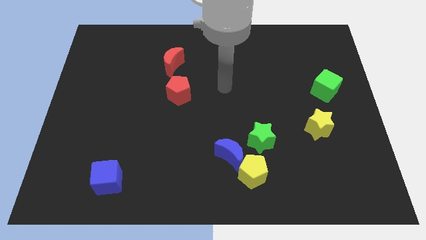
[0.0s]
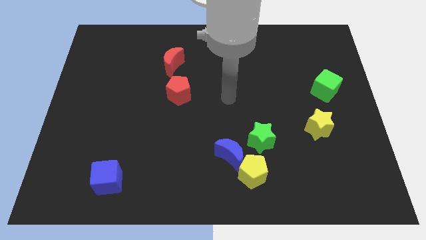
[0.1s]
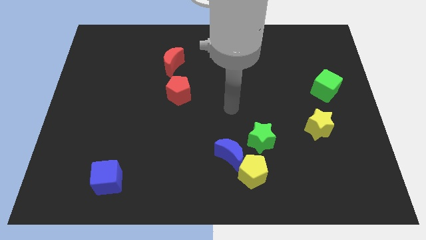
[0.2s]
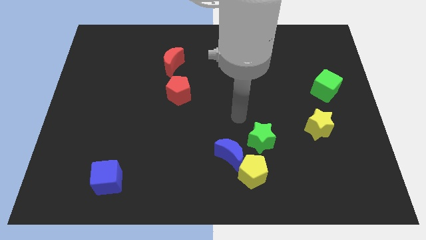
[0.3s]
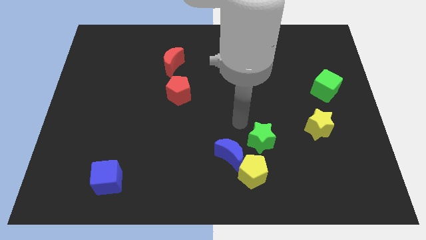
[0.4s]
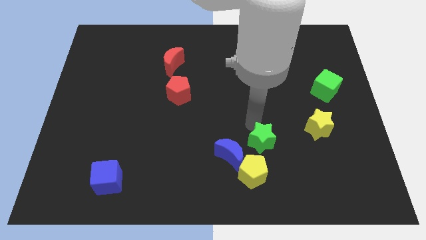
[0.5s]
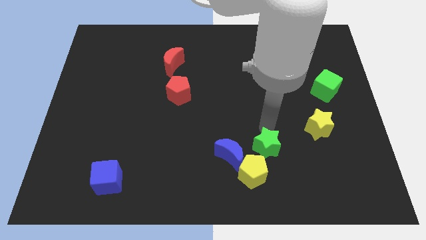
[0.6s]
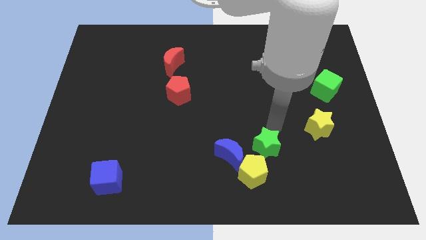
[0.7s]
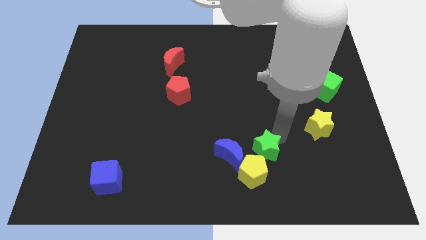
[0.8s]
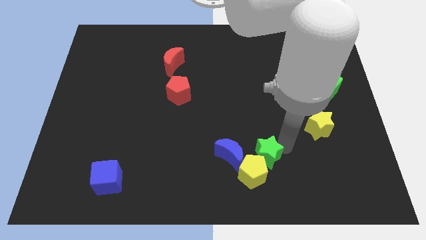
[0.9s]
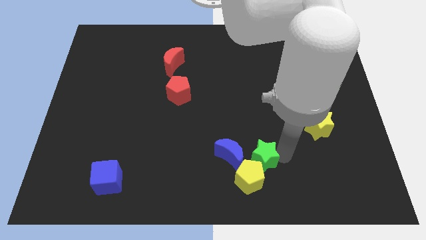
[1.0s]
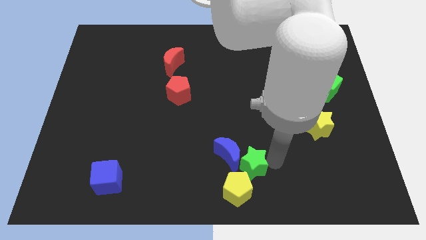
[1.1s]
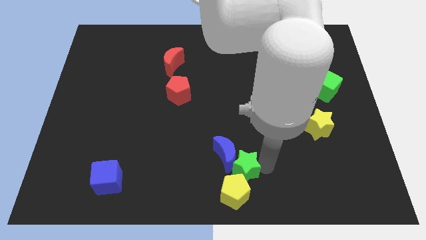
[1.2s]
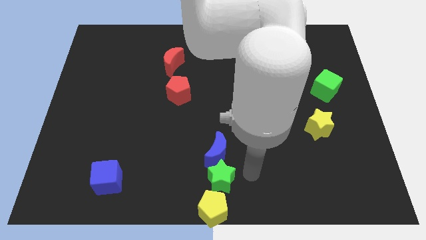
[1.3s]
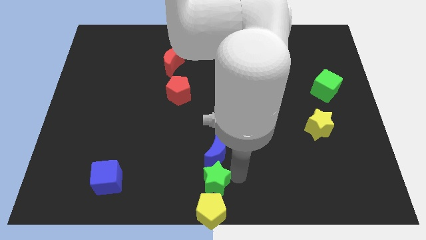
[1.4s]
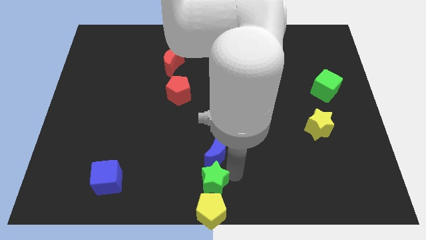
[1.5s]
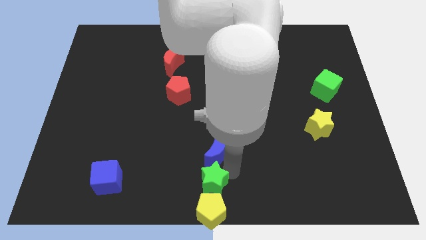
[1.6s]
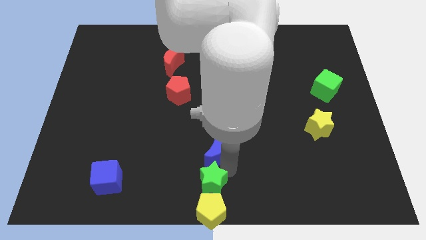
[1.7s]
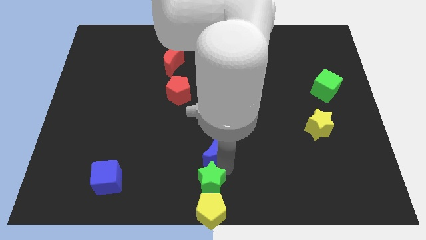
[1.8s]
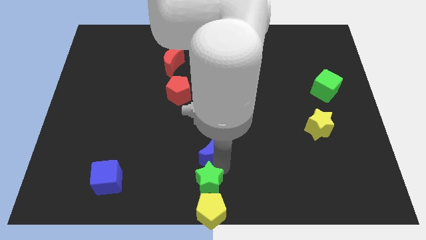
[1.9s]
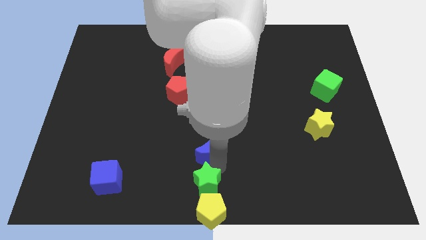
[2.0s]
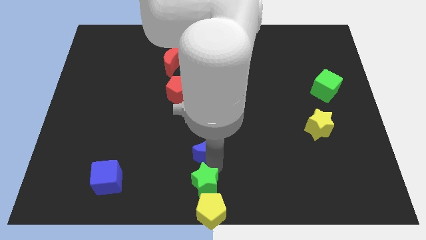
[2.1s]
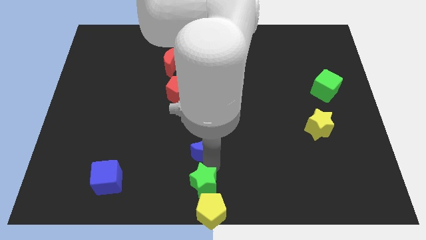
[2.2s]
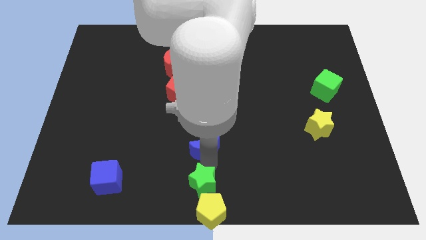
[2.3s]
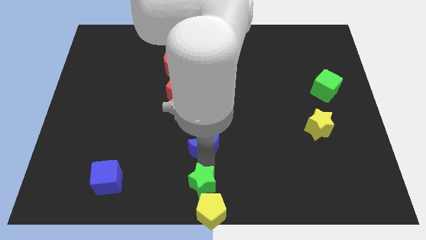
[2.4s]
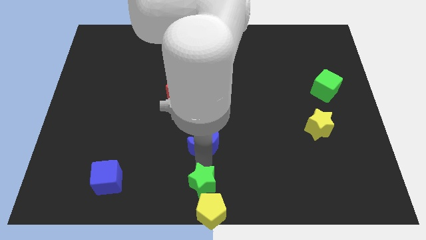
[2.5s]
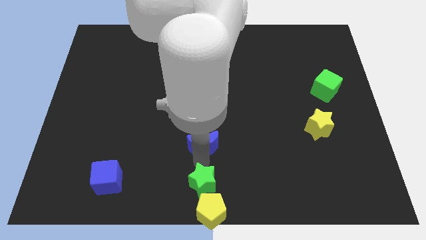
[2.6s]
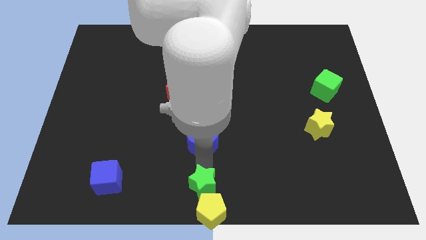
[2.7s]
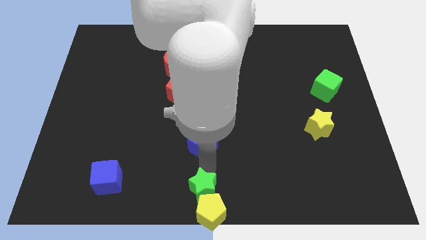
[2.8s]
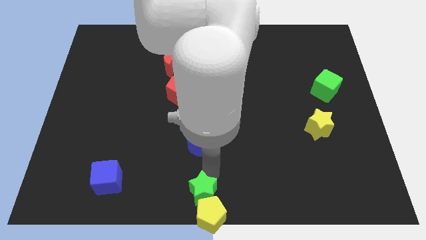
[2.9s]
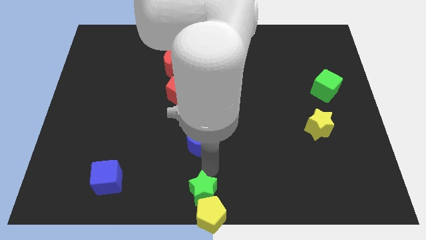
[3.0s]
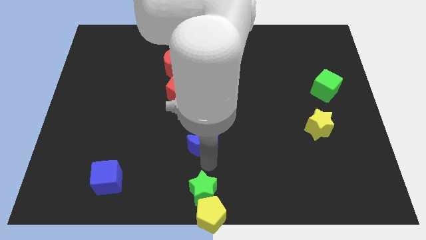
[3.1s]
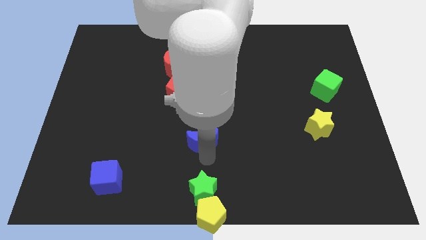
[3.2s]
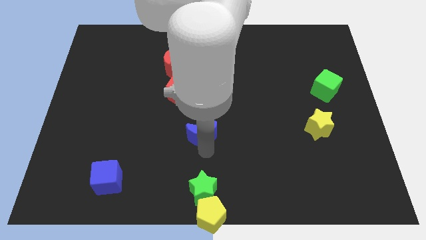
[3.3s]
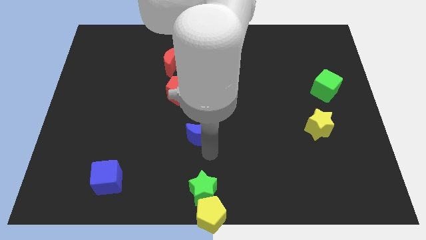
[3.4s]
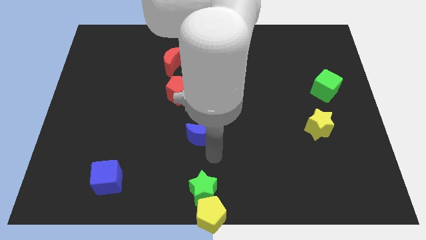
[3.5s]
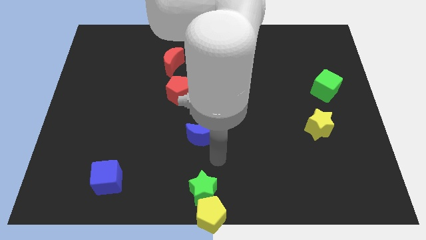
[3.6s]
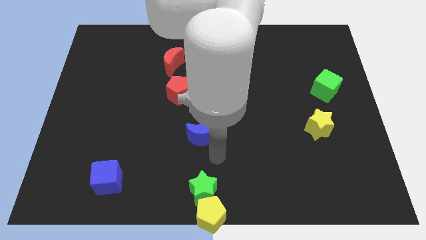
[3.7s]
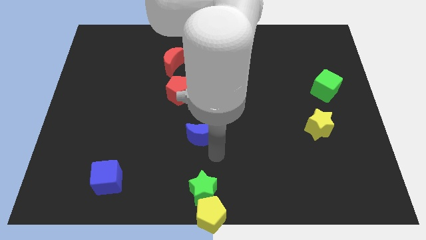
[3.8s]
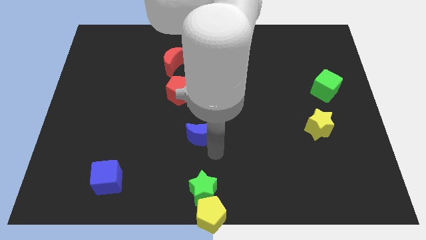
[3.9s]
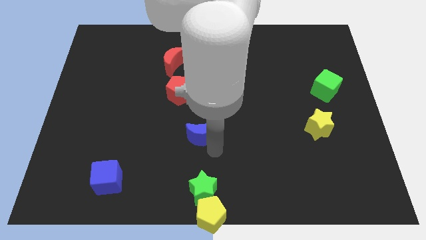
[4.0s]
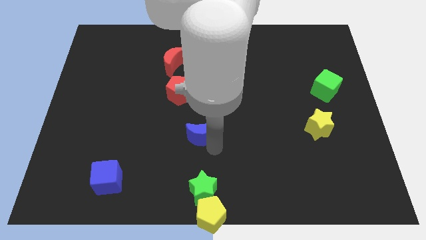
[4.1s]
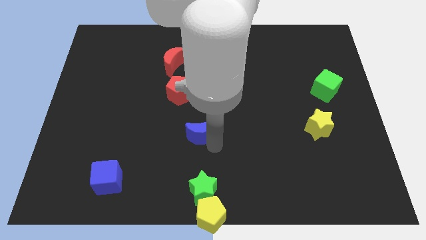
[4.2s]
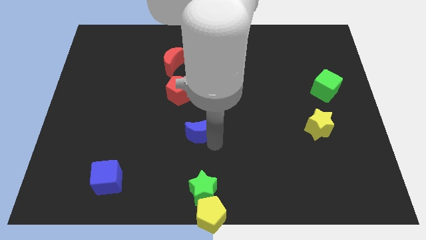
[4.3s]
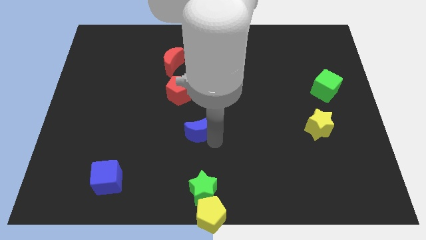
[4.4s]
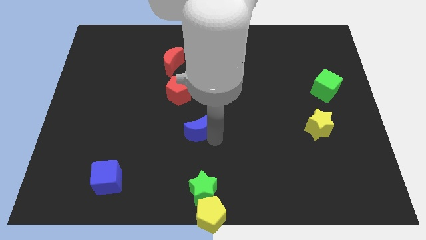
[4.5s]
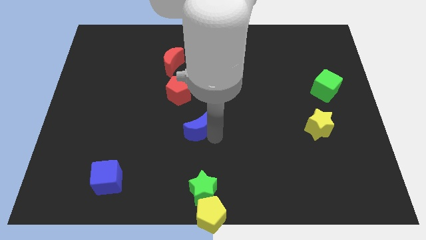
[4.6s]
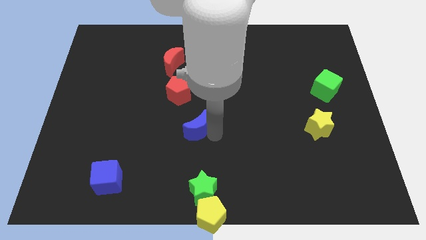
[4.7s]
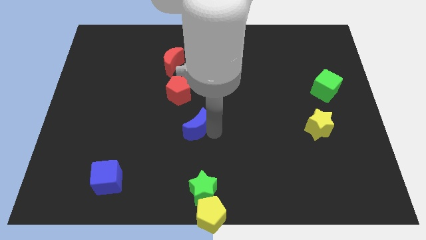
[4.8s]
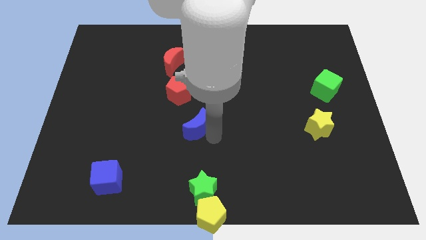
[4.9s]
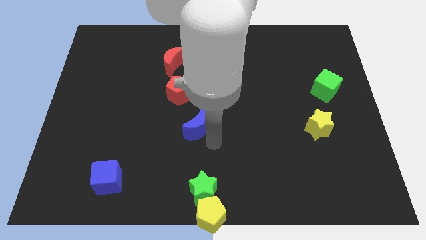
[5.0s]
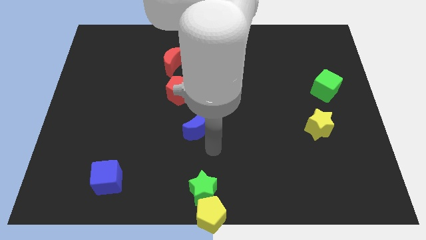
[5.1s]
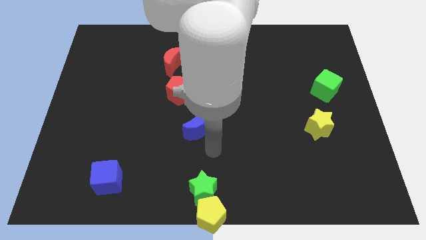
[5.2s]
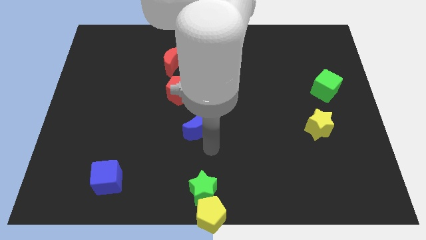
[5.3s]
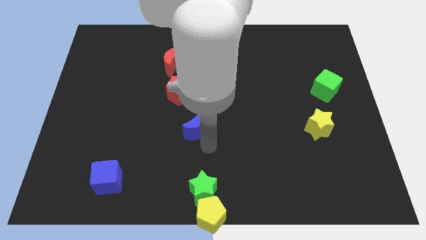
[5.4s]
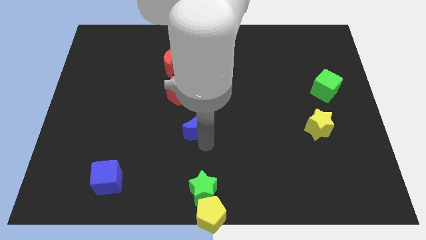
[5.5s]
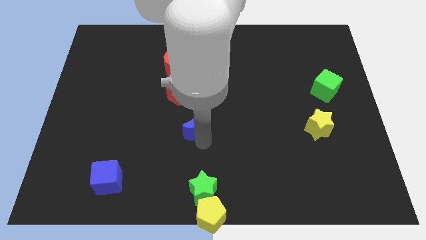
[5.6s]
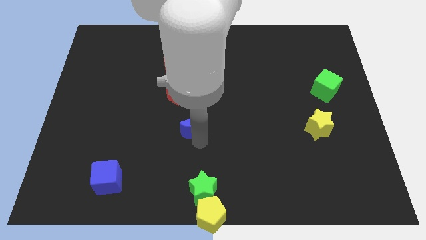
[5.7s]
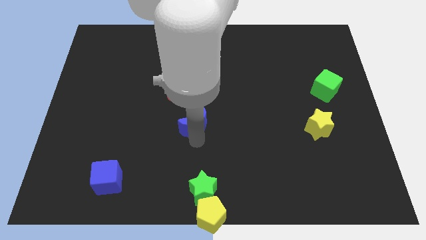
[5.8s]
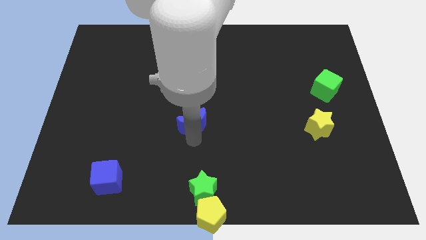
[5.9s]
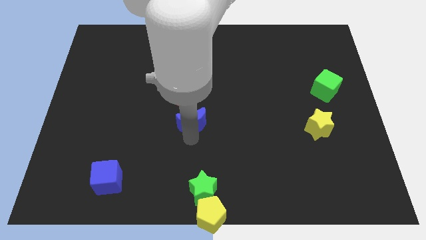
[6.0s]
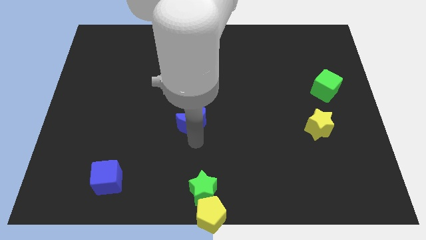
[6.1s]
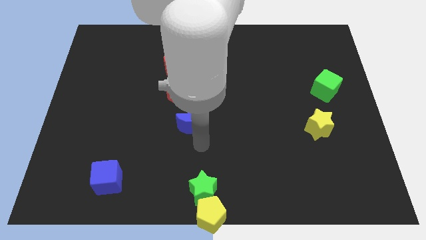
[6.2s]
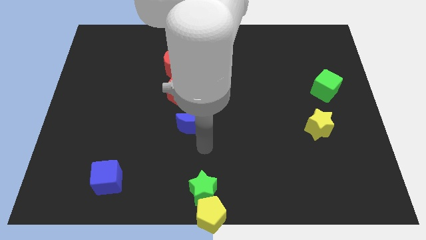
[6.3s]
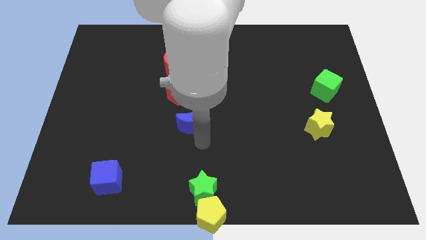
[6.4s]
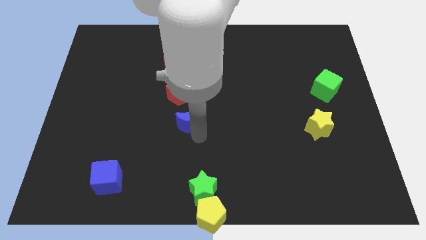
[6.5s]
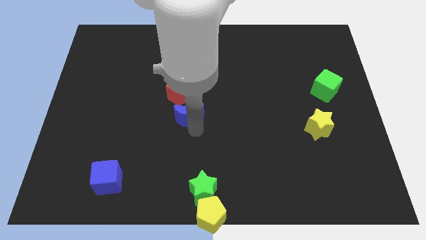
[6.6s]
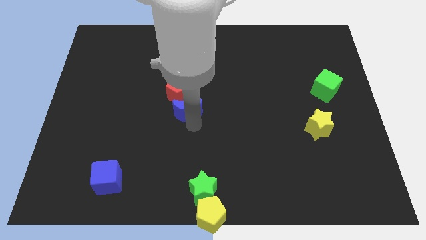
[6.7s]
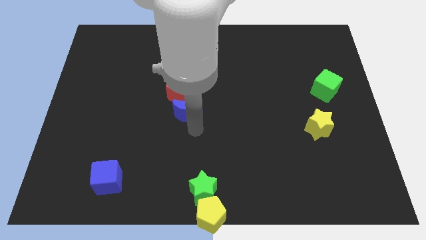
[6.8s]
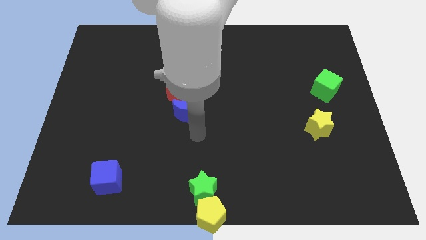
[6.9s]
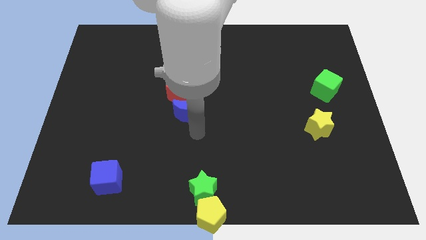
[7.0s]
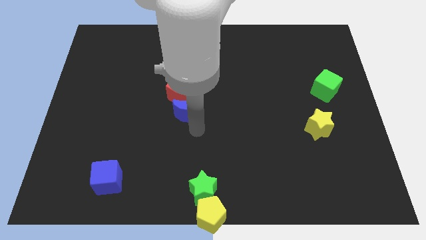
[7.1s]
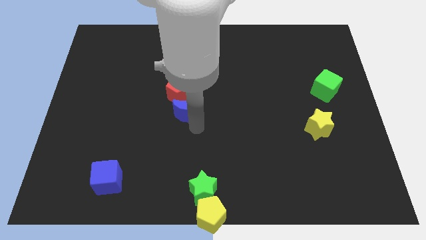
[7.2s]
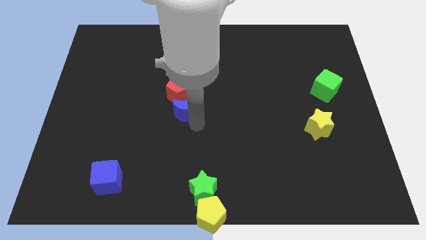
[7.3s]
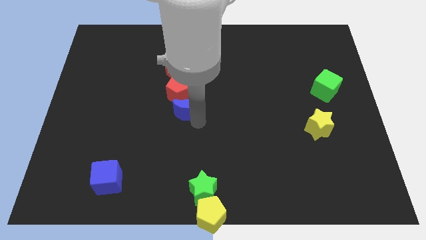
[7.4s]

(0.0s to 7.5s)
move the blue moon close to the red pentagon

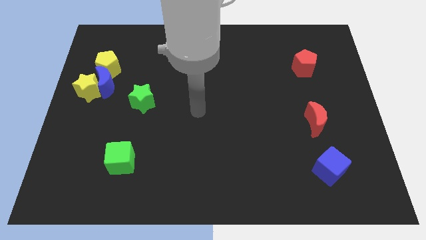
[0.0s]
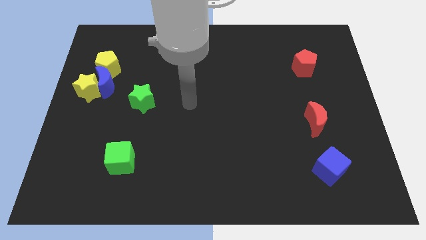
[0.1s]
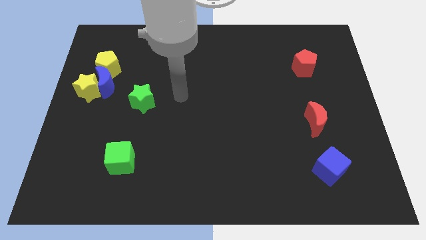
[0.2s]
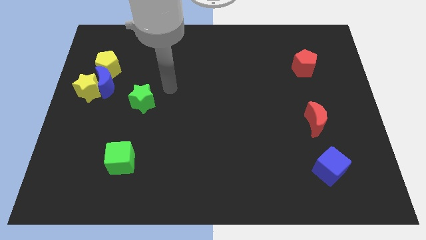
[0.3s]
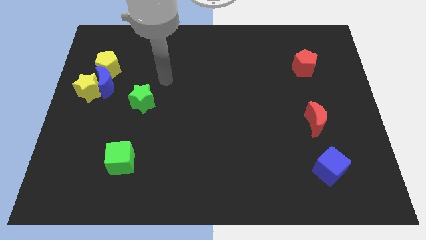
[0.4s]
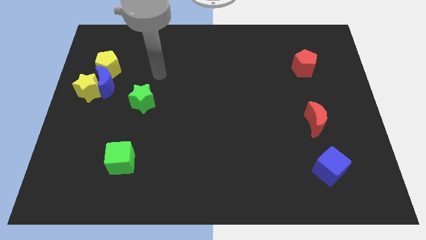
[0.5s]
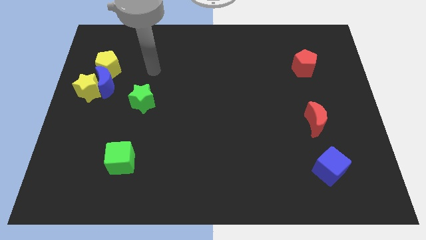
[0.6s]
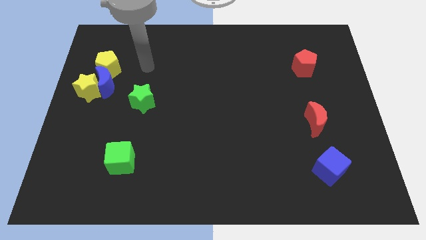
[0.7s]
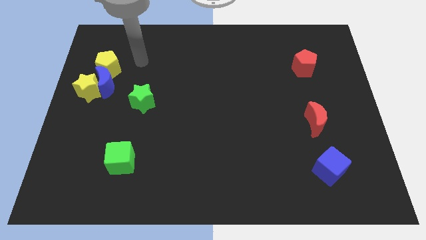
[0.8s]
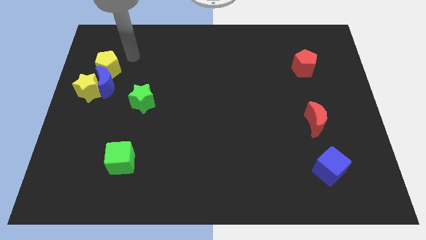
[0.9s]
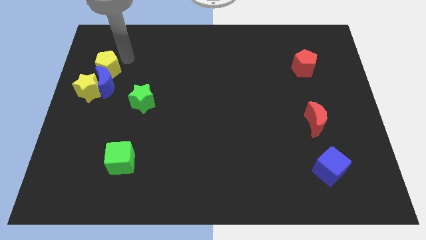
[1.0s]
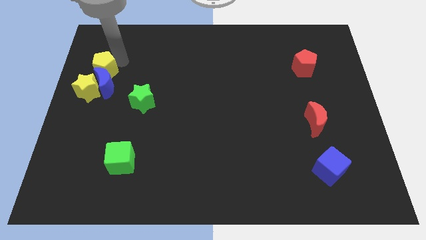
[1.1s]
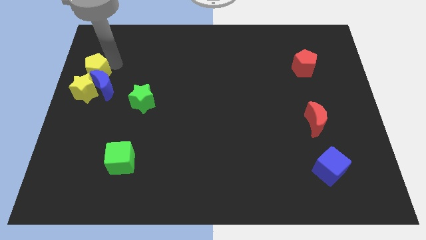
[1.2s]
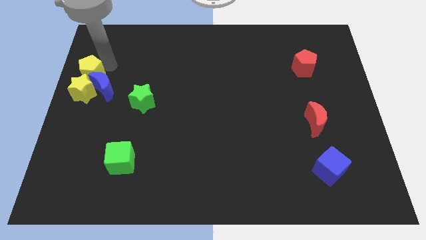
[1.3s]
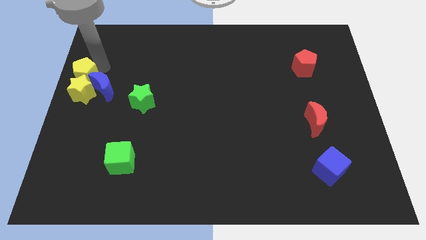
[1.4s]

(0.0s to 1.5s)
push the yellow pentagon next to the yellow star
